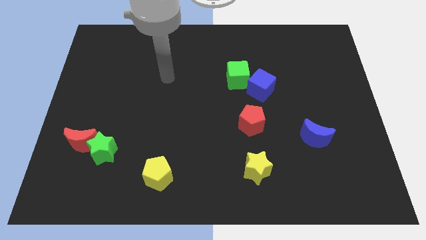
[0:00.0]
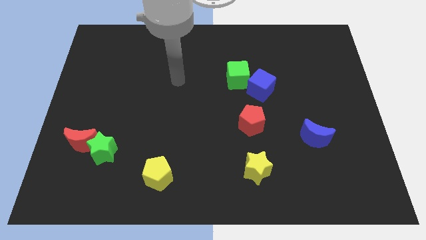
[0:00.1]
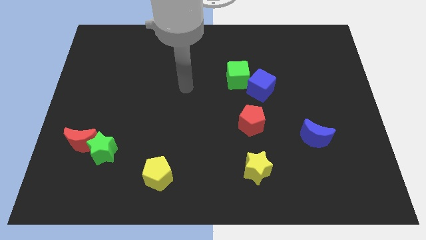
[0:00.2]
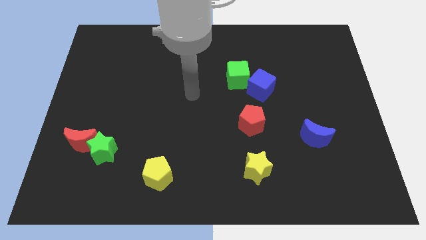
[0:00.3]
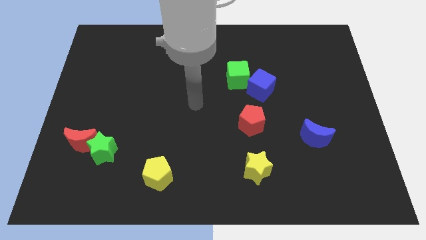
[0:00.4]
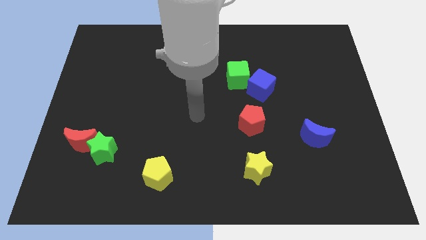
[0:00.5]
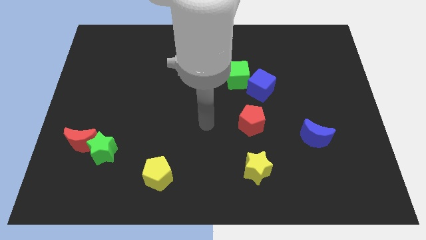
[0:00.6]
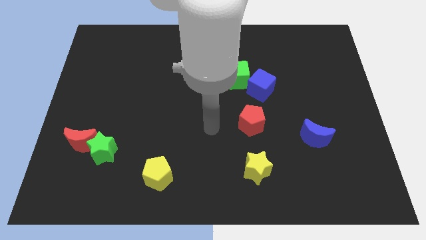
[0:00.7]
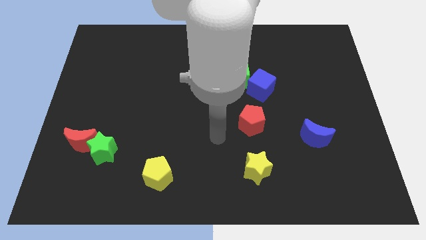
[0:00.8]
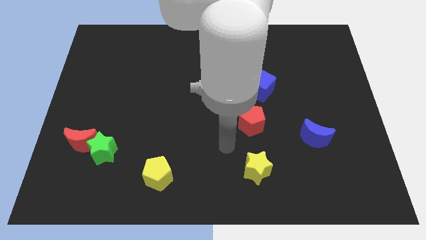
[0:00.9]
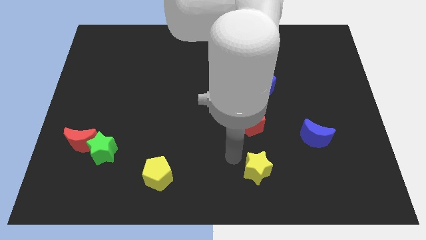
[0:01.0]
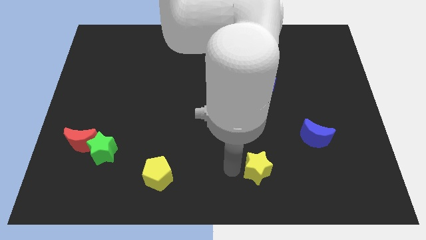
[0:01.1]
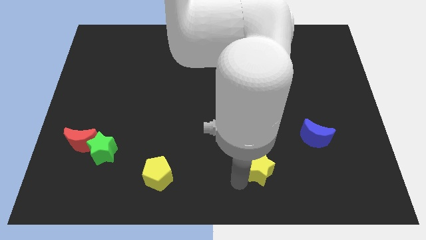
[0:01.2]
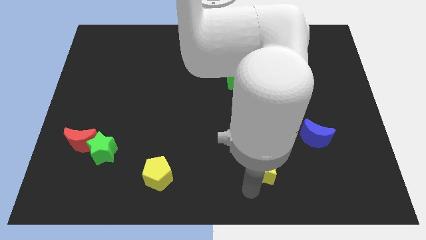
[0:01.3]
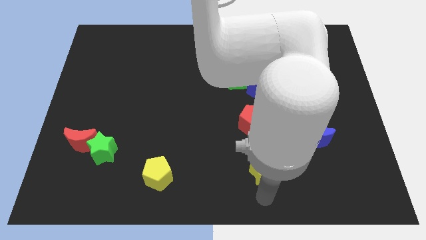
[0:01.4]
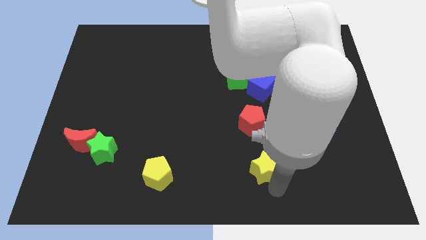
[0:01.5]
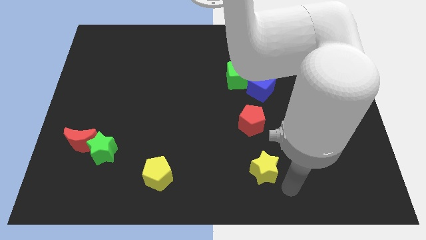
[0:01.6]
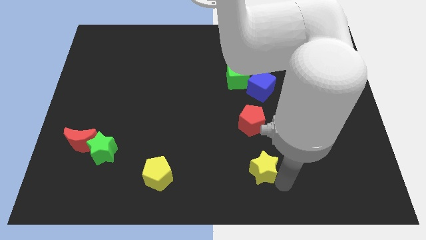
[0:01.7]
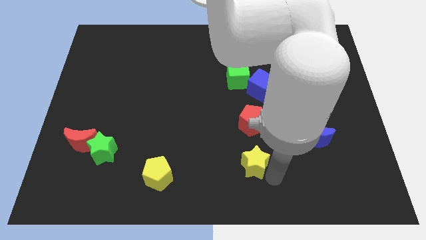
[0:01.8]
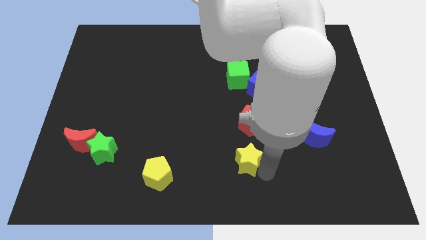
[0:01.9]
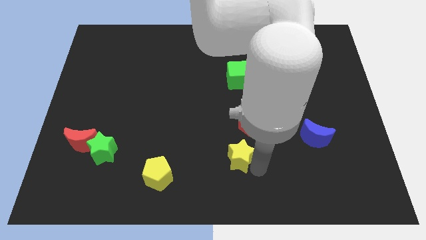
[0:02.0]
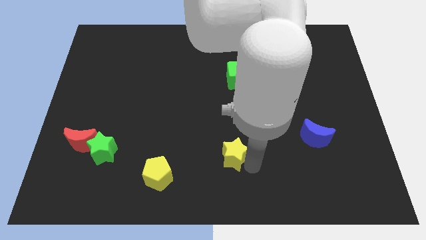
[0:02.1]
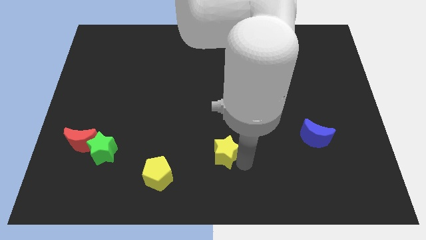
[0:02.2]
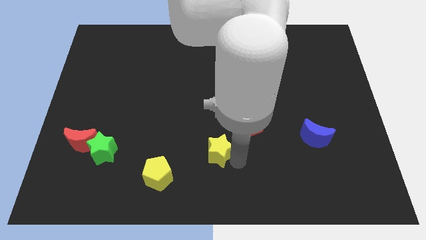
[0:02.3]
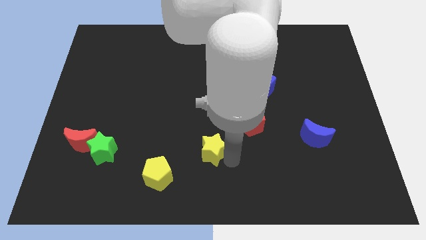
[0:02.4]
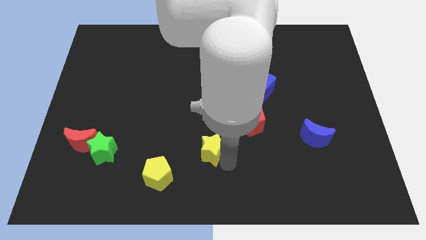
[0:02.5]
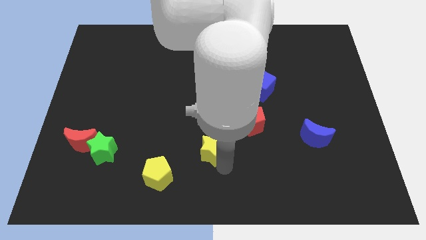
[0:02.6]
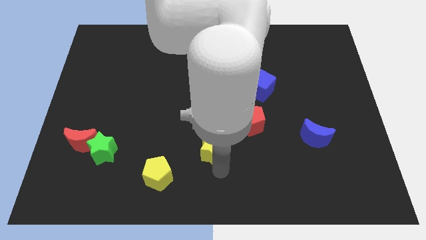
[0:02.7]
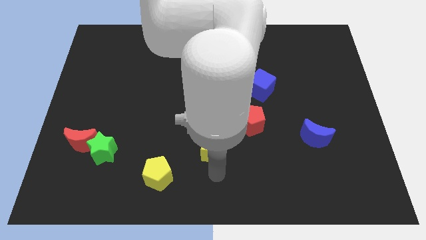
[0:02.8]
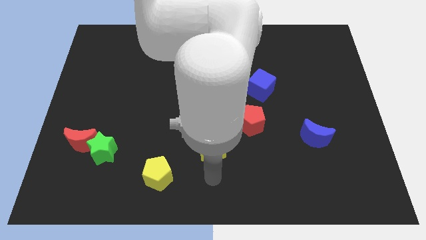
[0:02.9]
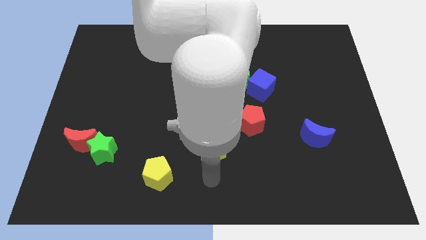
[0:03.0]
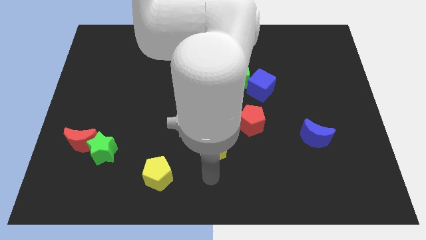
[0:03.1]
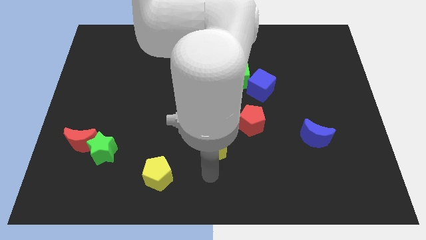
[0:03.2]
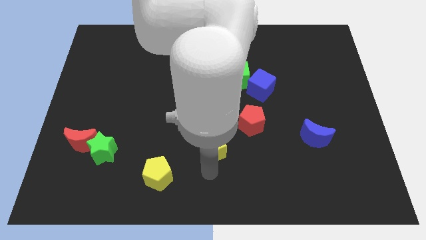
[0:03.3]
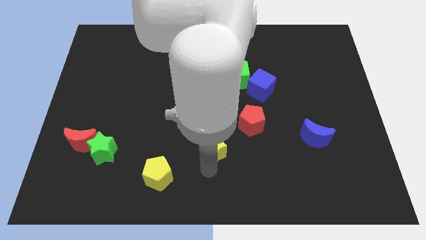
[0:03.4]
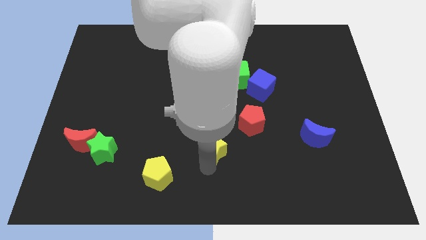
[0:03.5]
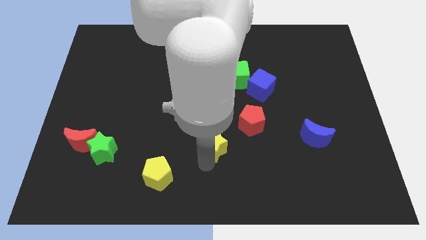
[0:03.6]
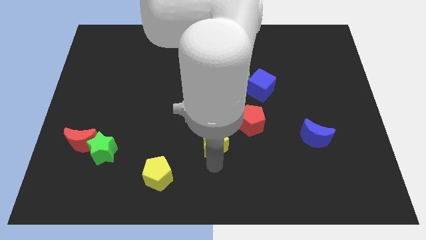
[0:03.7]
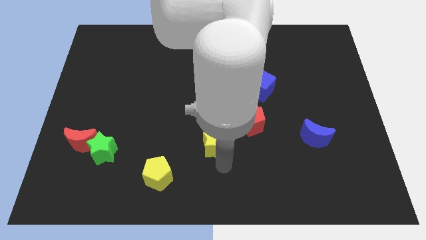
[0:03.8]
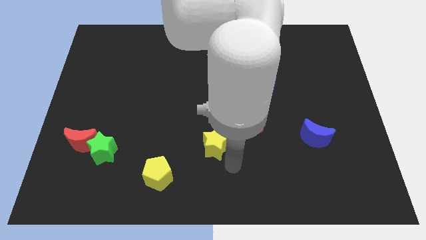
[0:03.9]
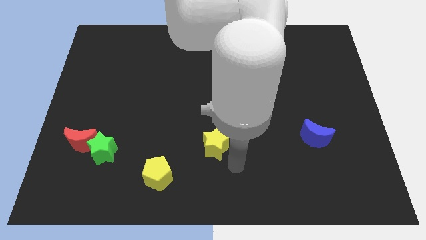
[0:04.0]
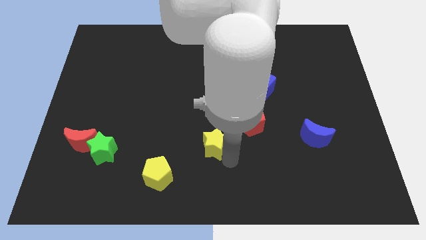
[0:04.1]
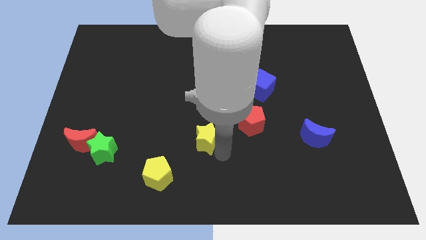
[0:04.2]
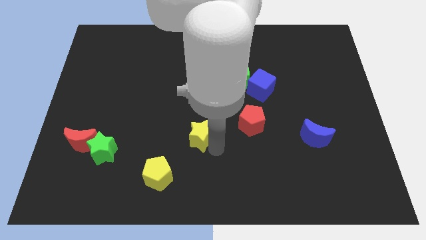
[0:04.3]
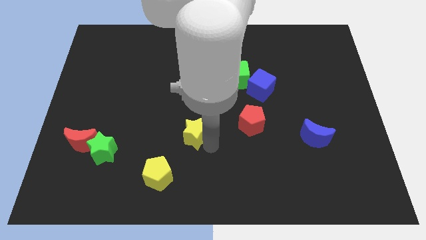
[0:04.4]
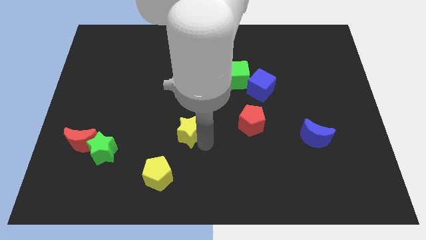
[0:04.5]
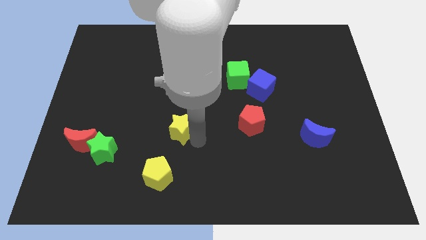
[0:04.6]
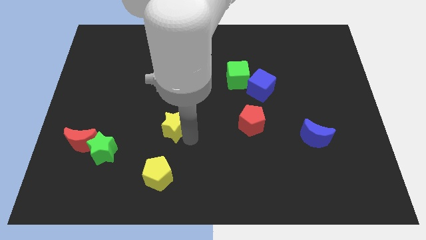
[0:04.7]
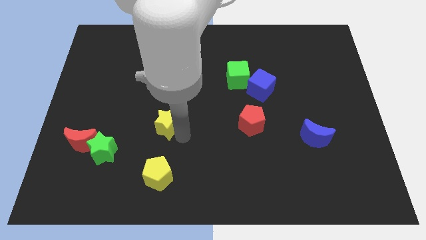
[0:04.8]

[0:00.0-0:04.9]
slide the yellow star diagonally up and left

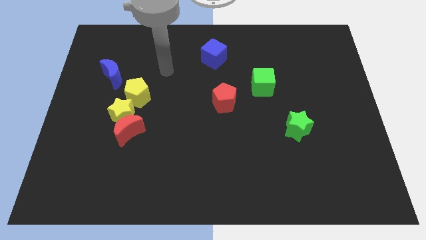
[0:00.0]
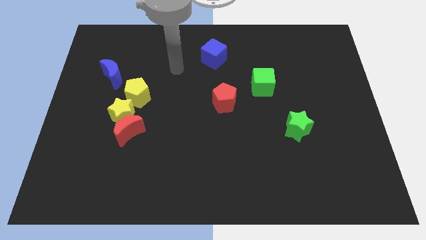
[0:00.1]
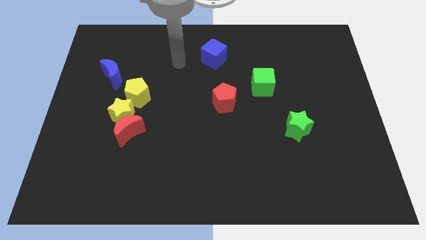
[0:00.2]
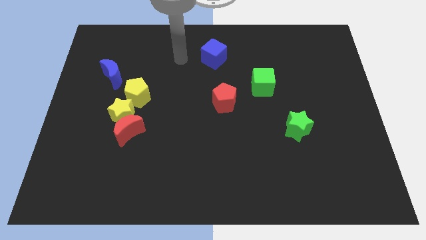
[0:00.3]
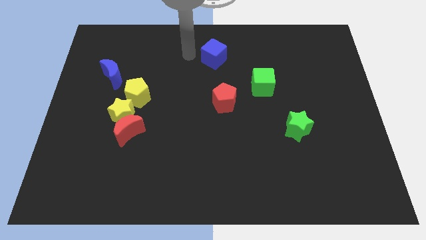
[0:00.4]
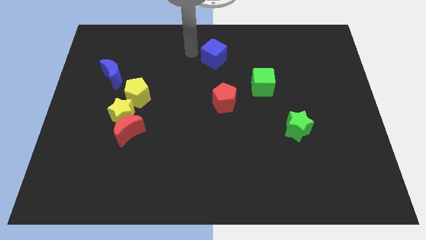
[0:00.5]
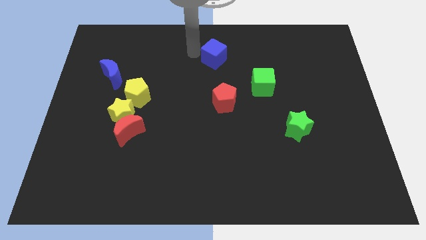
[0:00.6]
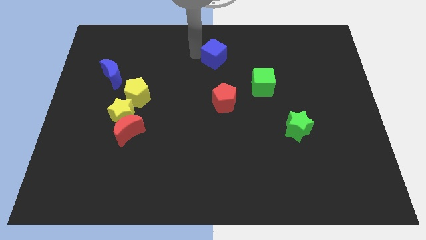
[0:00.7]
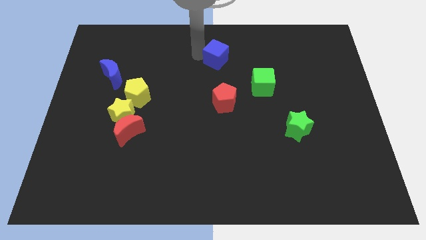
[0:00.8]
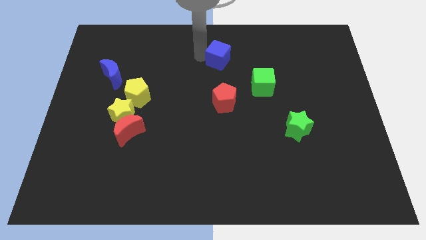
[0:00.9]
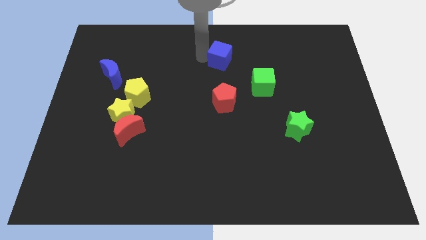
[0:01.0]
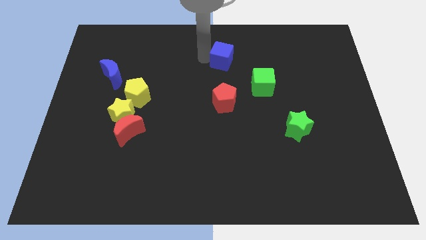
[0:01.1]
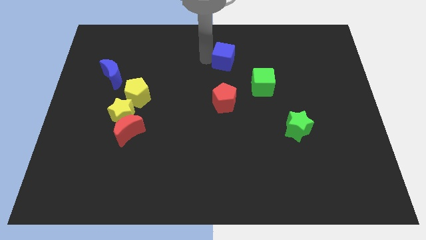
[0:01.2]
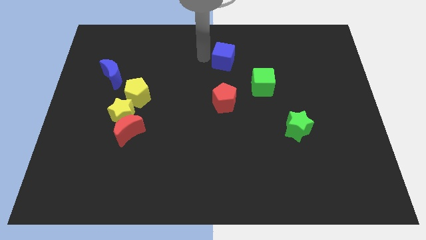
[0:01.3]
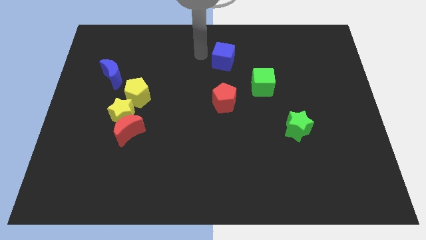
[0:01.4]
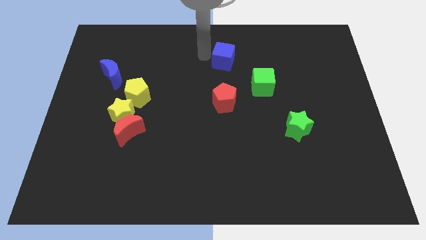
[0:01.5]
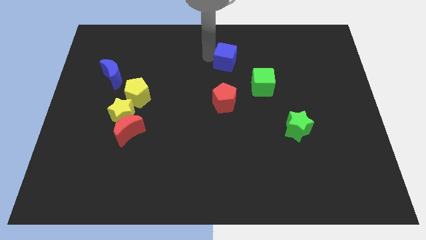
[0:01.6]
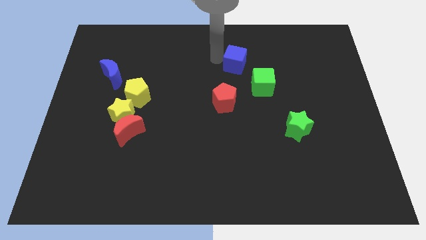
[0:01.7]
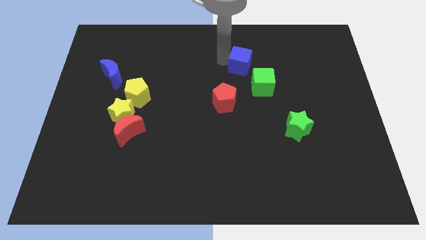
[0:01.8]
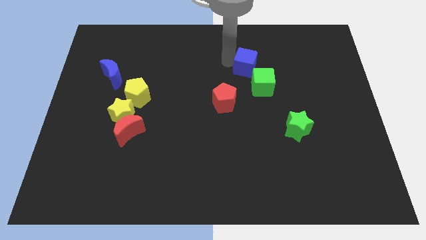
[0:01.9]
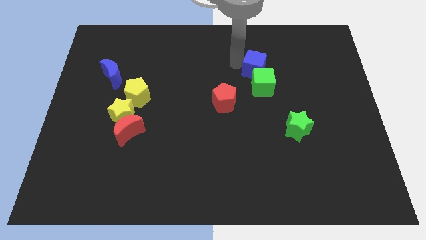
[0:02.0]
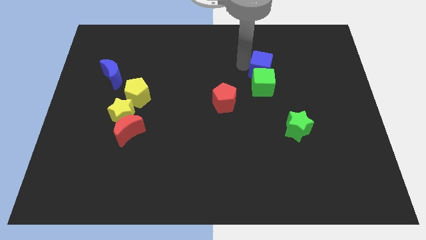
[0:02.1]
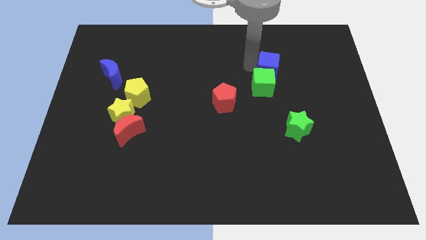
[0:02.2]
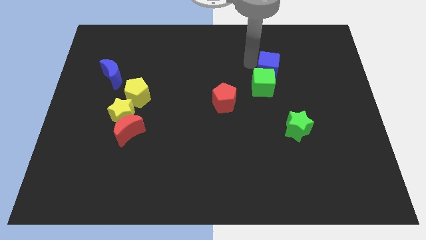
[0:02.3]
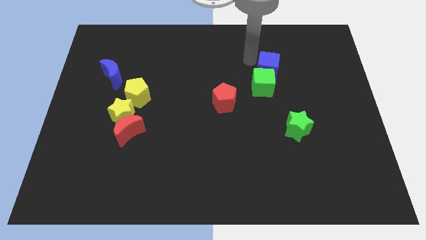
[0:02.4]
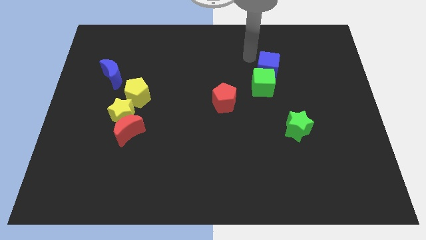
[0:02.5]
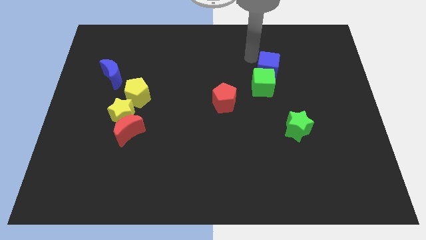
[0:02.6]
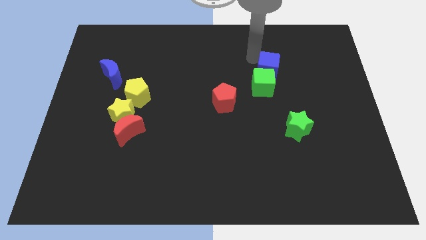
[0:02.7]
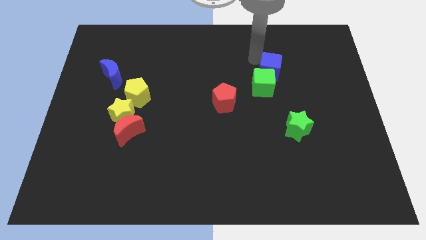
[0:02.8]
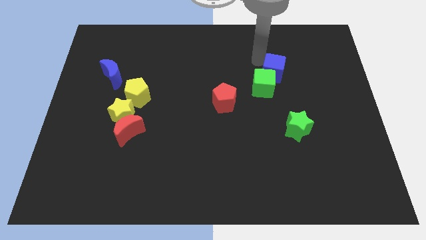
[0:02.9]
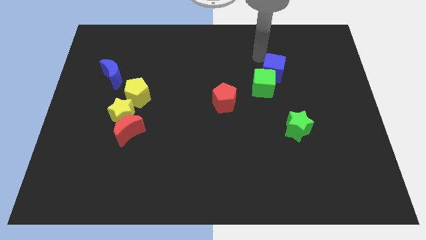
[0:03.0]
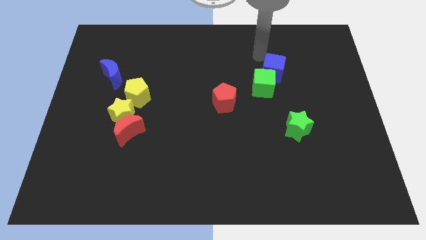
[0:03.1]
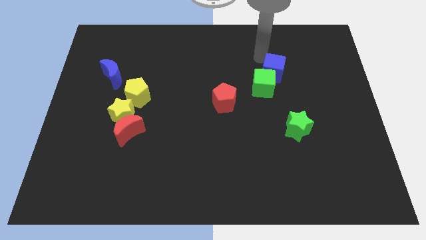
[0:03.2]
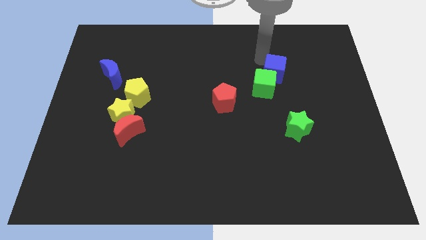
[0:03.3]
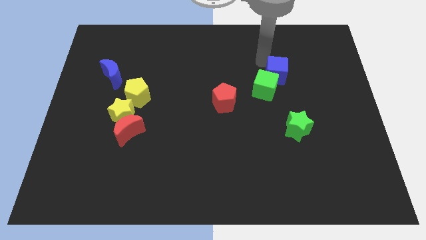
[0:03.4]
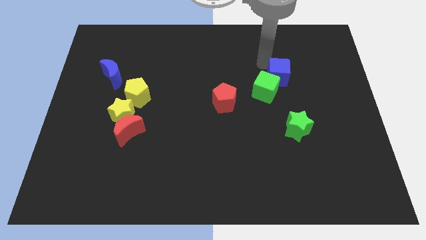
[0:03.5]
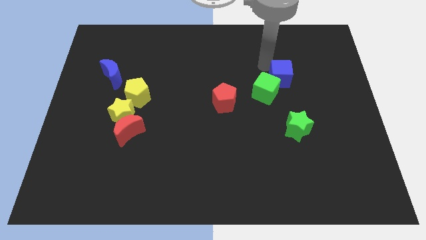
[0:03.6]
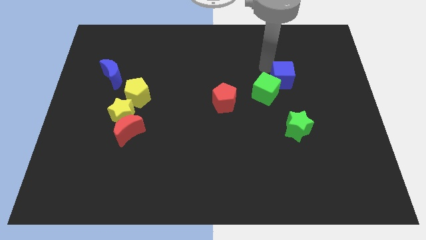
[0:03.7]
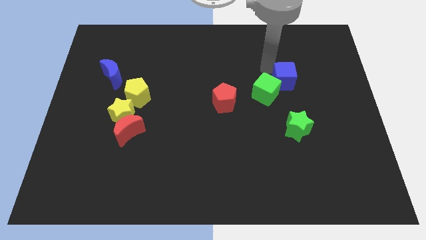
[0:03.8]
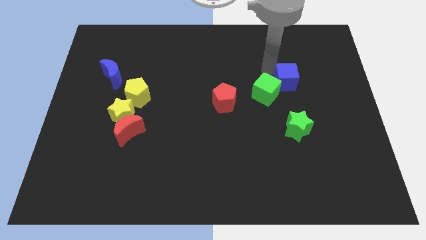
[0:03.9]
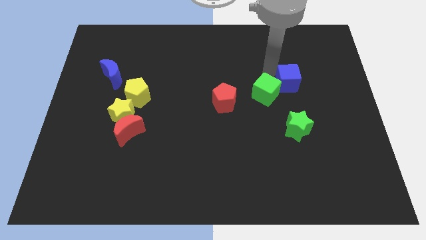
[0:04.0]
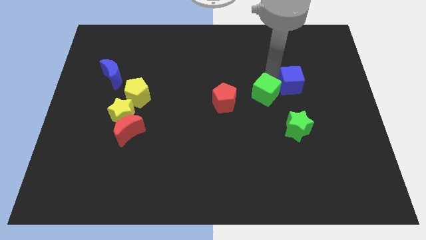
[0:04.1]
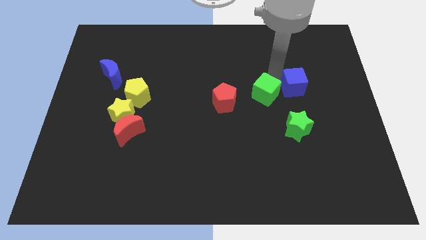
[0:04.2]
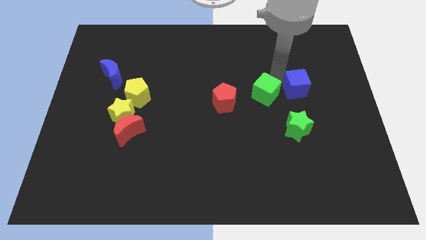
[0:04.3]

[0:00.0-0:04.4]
push the blue cube down and to the right
